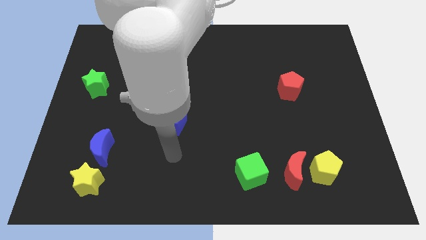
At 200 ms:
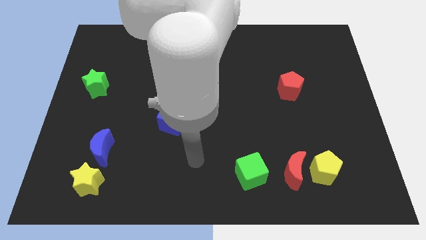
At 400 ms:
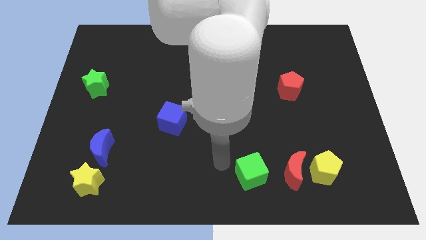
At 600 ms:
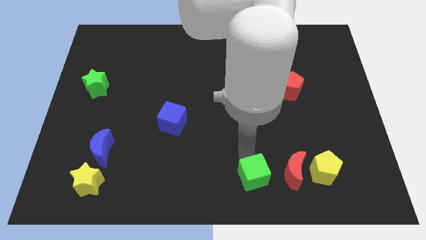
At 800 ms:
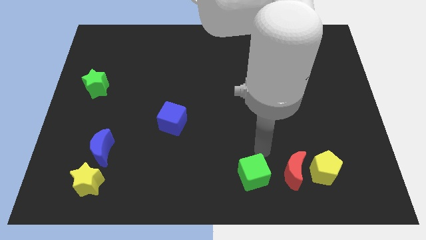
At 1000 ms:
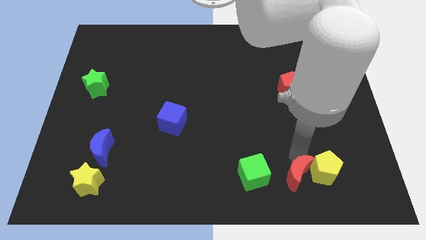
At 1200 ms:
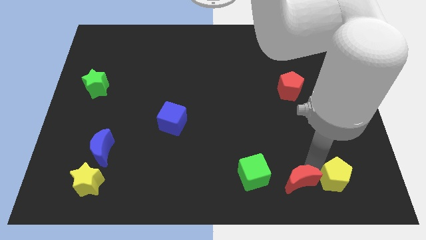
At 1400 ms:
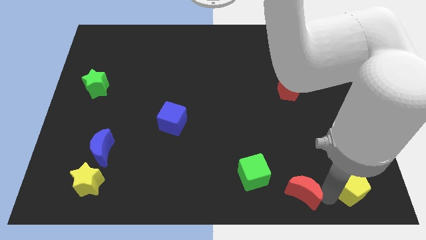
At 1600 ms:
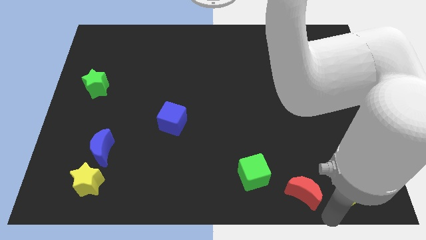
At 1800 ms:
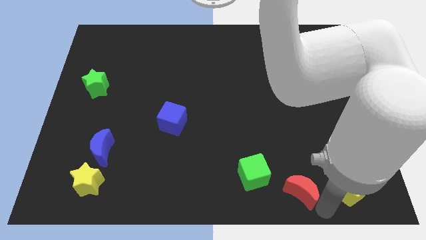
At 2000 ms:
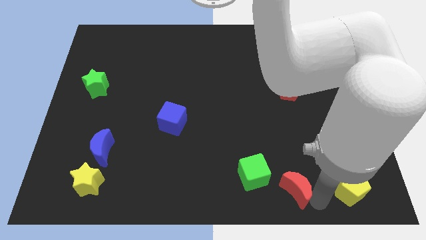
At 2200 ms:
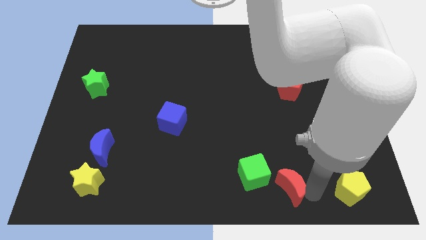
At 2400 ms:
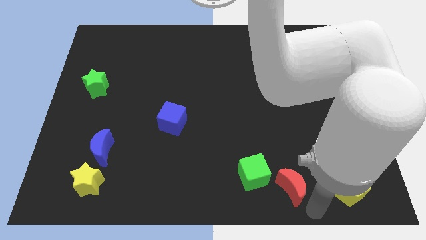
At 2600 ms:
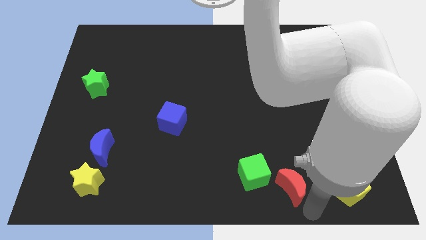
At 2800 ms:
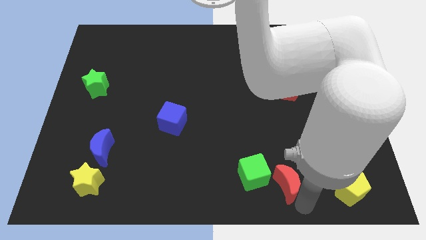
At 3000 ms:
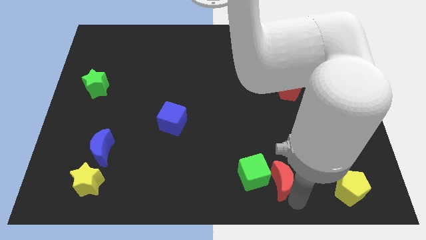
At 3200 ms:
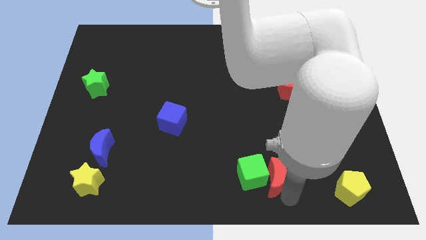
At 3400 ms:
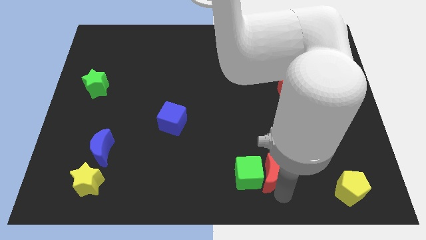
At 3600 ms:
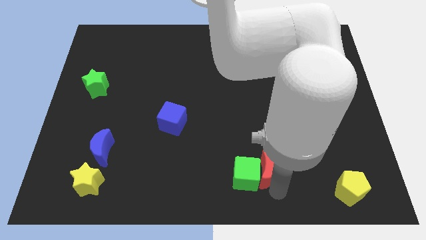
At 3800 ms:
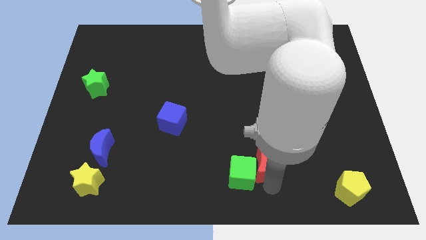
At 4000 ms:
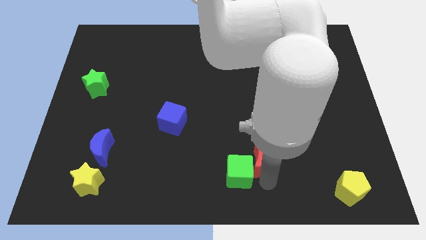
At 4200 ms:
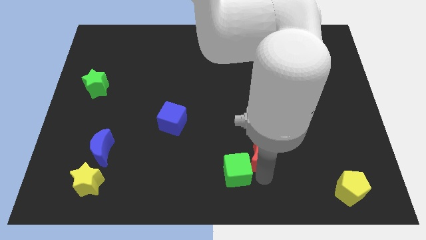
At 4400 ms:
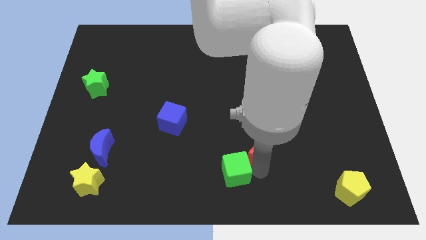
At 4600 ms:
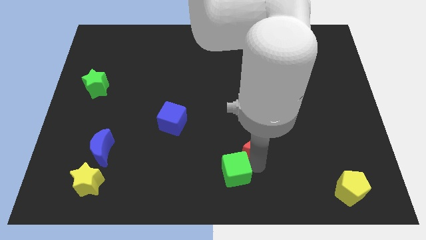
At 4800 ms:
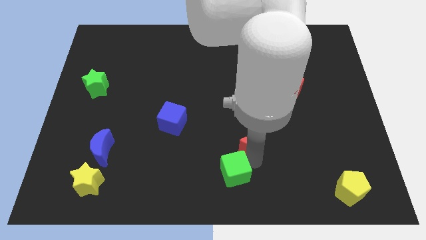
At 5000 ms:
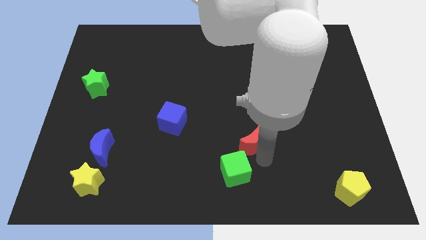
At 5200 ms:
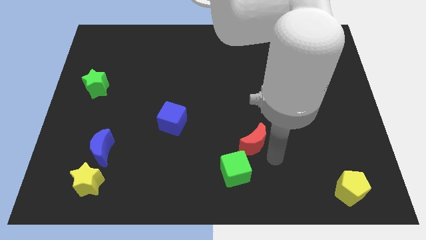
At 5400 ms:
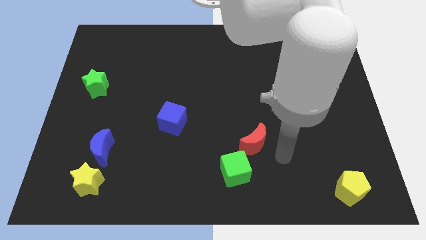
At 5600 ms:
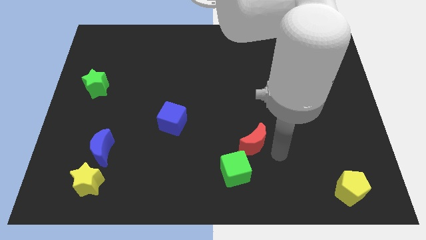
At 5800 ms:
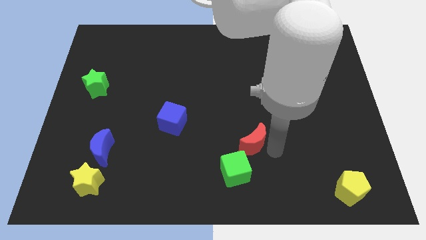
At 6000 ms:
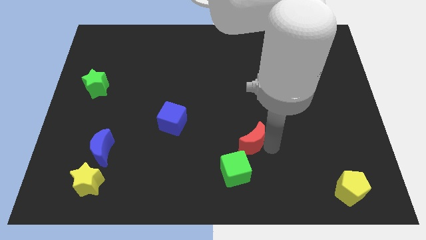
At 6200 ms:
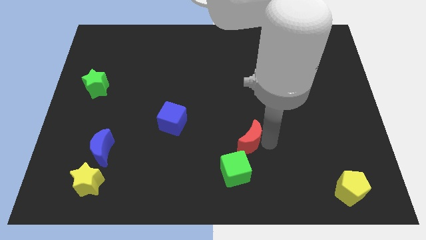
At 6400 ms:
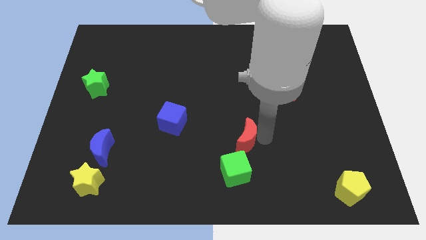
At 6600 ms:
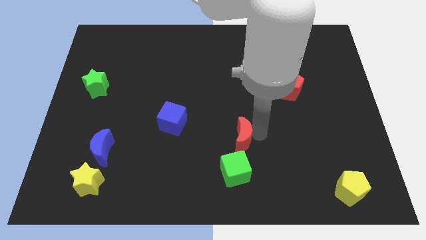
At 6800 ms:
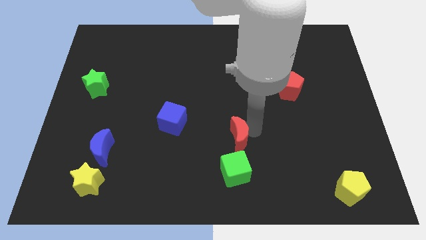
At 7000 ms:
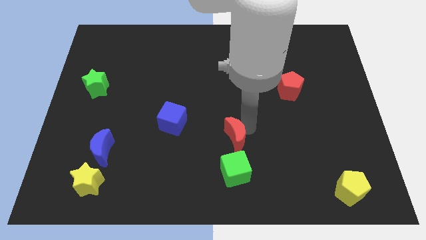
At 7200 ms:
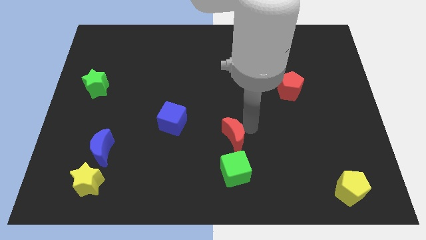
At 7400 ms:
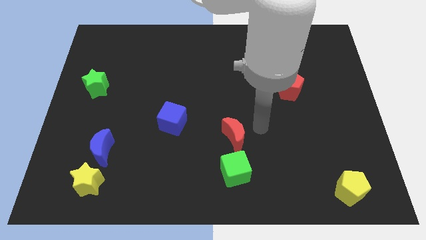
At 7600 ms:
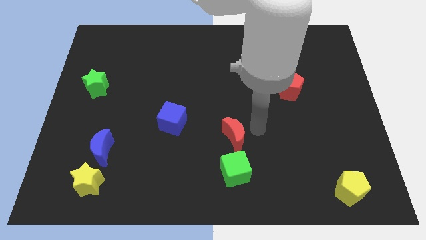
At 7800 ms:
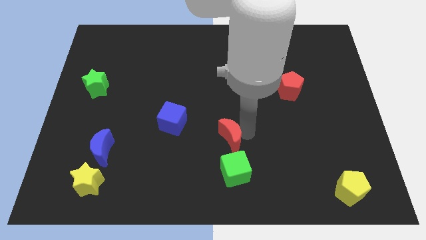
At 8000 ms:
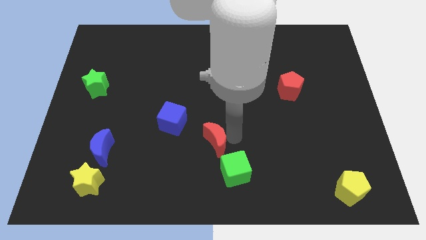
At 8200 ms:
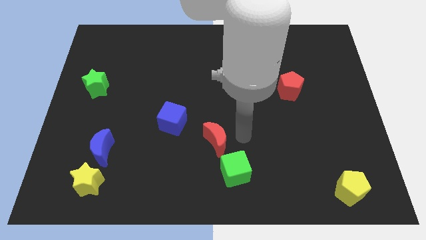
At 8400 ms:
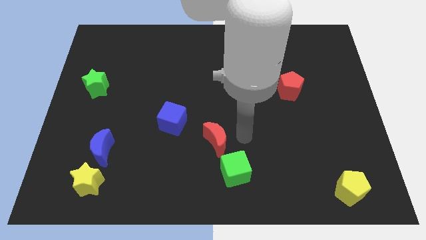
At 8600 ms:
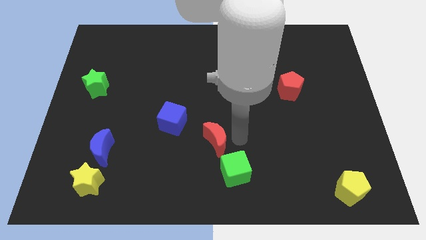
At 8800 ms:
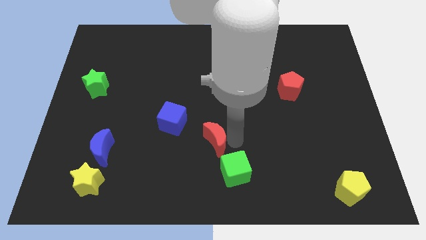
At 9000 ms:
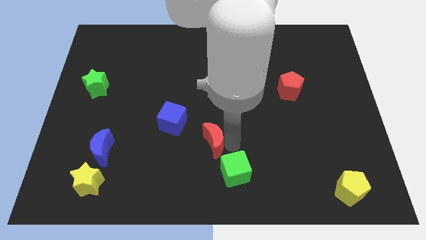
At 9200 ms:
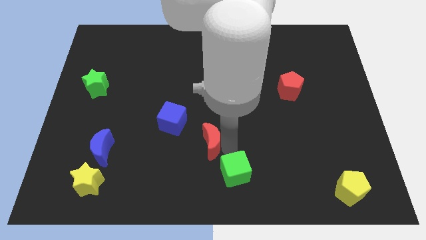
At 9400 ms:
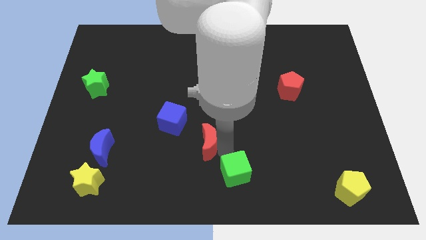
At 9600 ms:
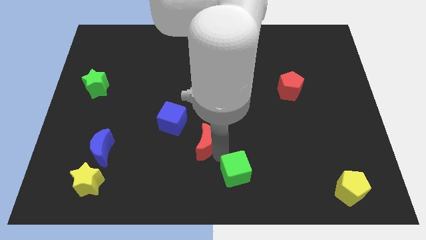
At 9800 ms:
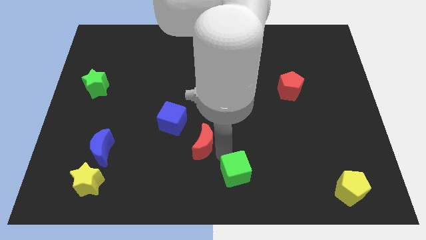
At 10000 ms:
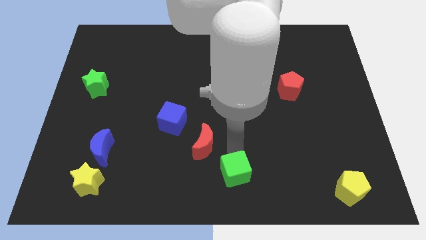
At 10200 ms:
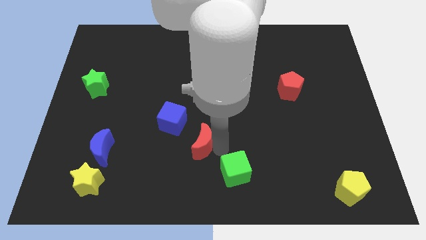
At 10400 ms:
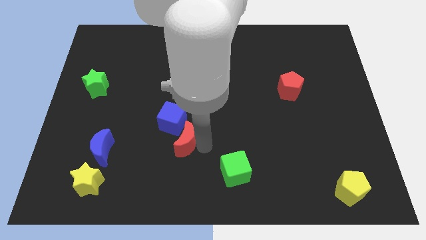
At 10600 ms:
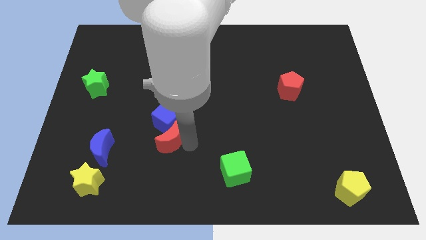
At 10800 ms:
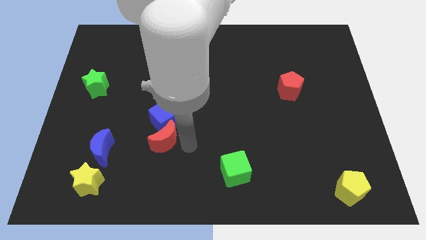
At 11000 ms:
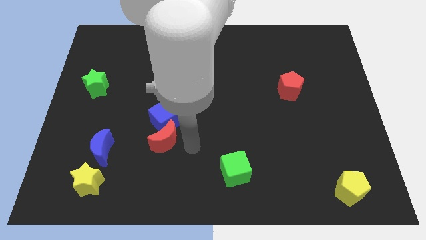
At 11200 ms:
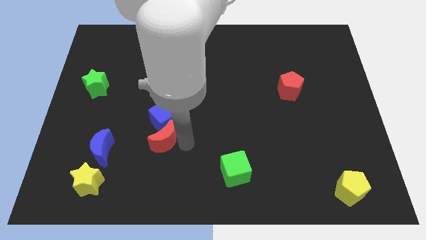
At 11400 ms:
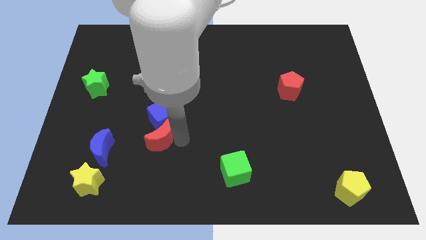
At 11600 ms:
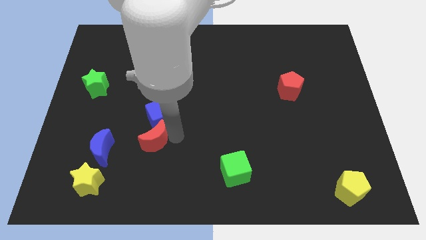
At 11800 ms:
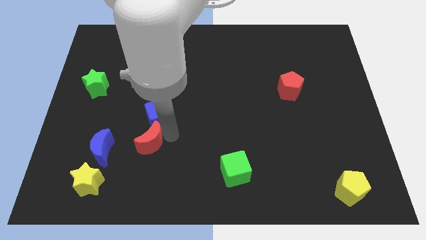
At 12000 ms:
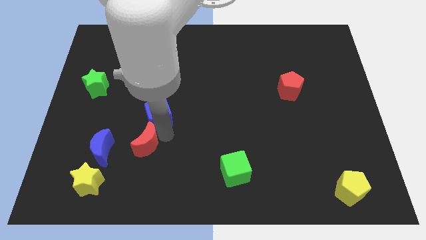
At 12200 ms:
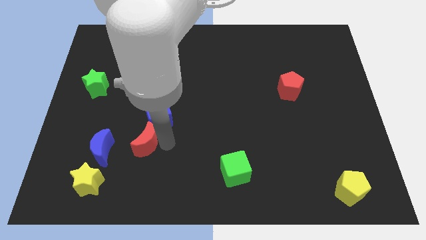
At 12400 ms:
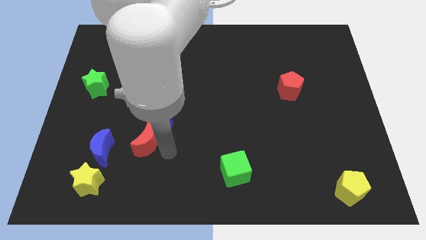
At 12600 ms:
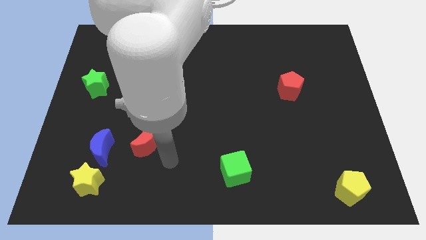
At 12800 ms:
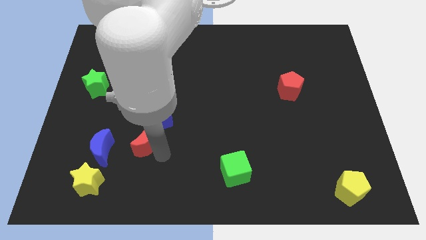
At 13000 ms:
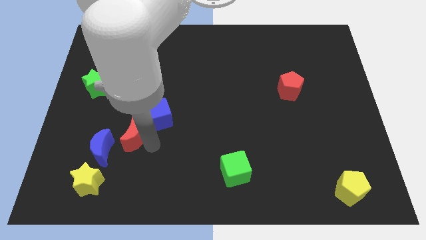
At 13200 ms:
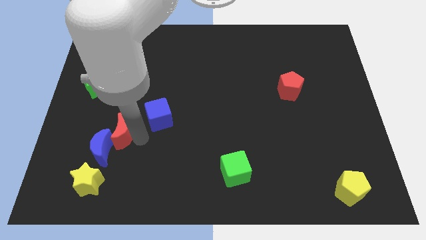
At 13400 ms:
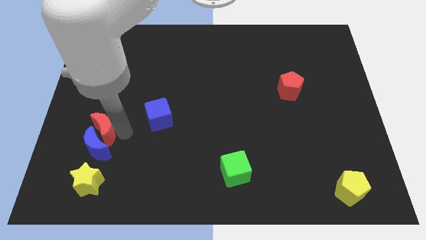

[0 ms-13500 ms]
push the red moon to the top left of the blue moon

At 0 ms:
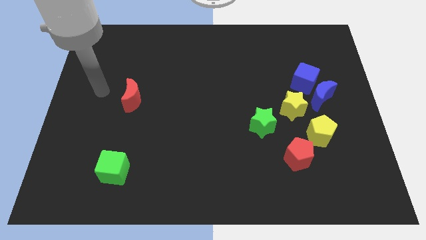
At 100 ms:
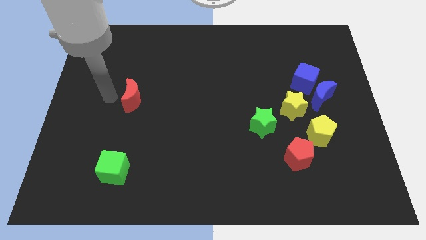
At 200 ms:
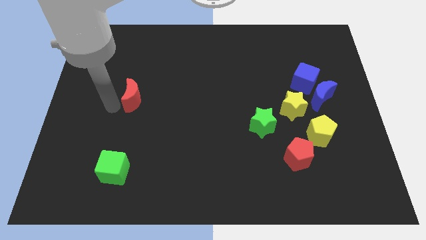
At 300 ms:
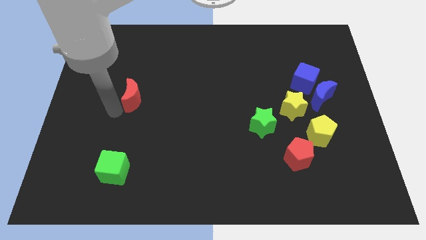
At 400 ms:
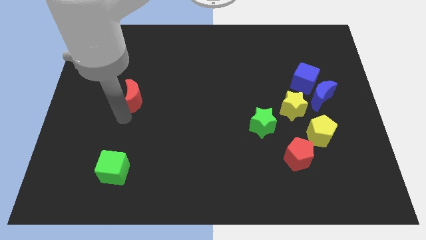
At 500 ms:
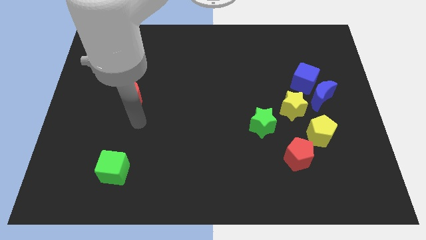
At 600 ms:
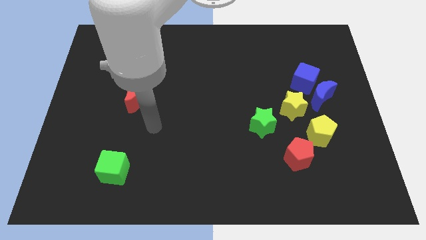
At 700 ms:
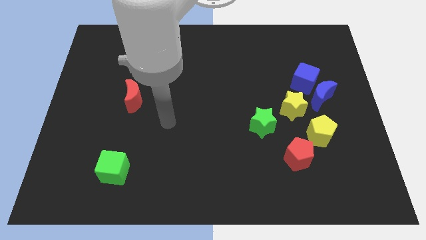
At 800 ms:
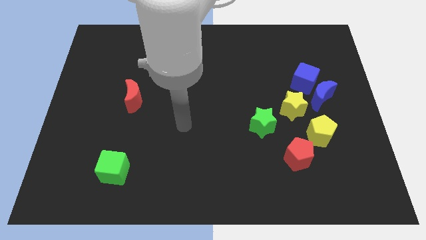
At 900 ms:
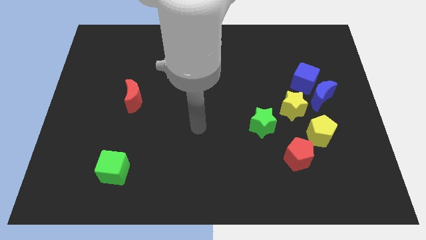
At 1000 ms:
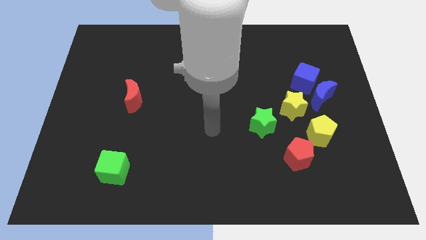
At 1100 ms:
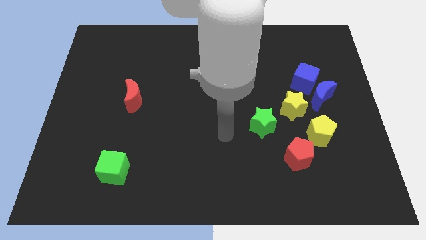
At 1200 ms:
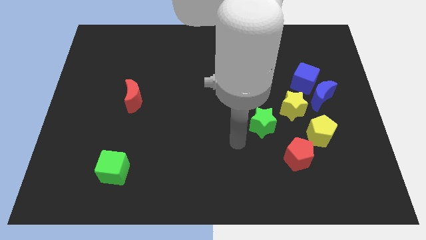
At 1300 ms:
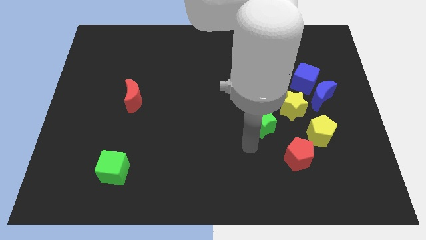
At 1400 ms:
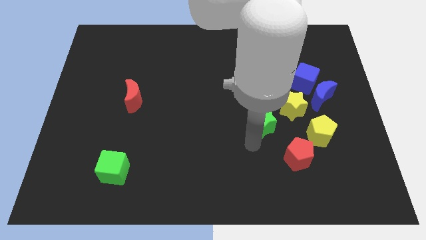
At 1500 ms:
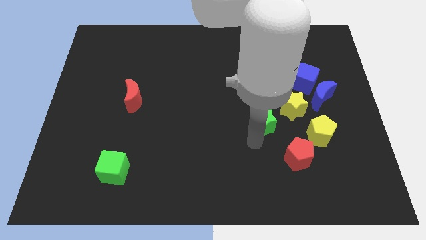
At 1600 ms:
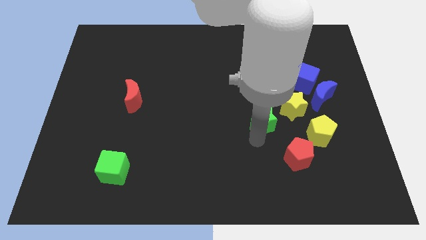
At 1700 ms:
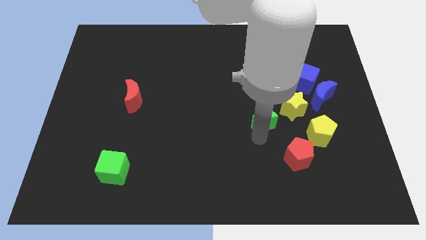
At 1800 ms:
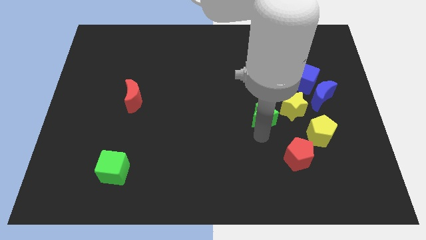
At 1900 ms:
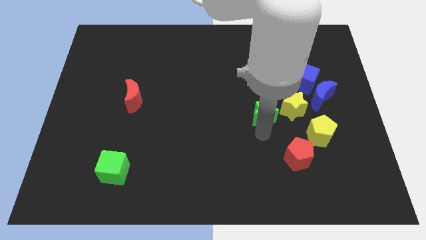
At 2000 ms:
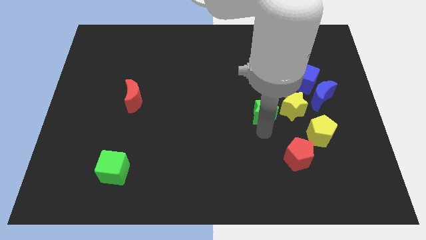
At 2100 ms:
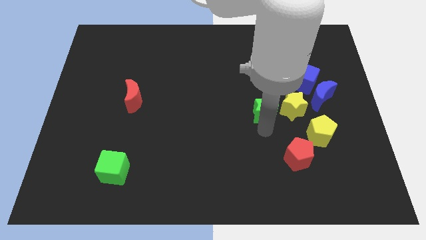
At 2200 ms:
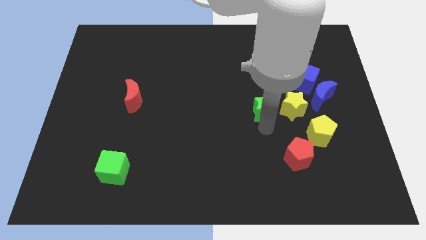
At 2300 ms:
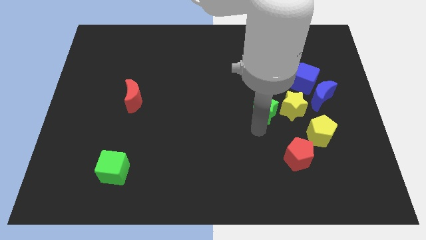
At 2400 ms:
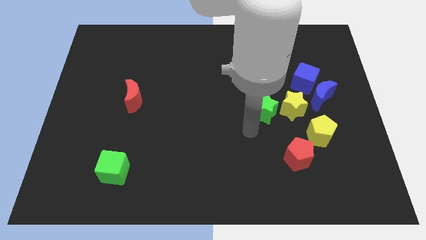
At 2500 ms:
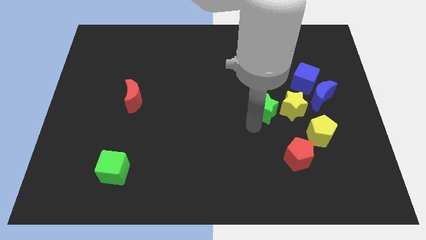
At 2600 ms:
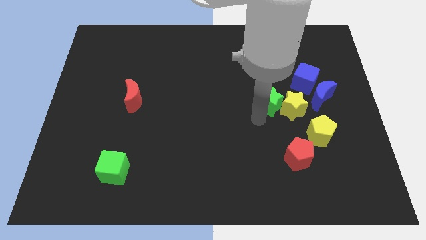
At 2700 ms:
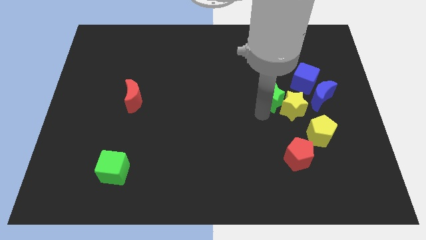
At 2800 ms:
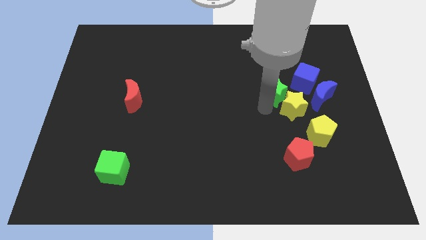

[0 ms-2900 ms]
push the green star to the top of the yellow star
